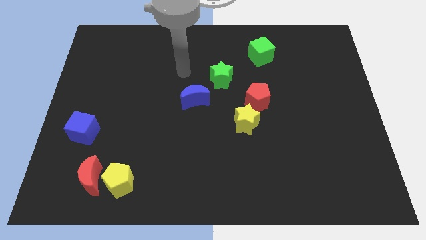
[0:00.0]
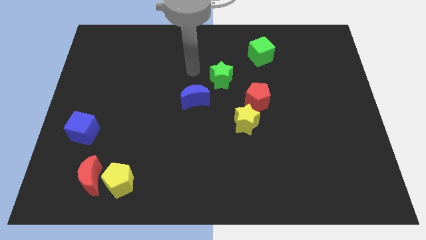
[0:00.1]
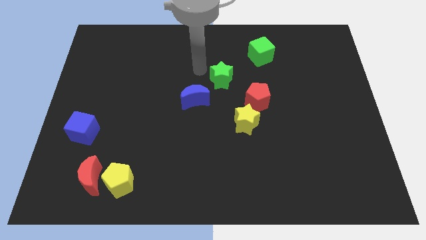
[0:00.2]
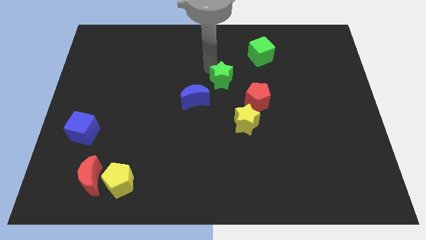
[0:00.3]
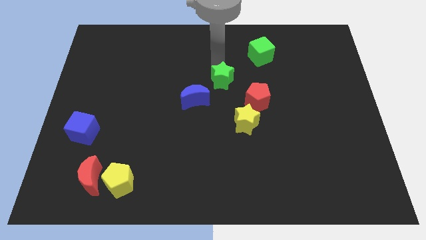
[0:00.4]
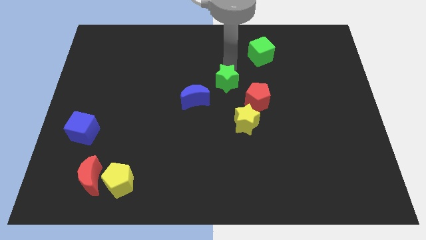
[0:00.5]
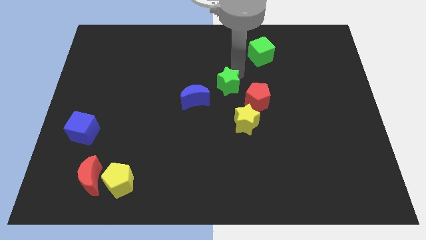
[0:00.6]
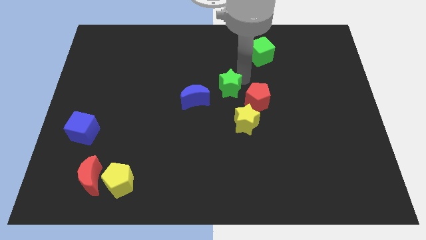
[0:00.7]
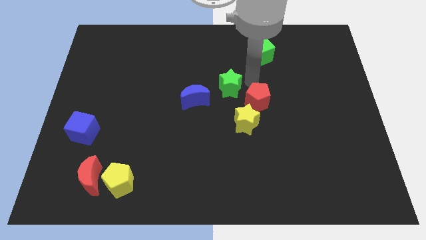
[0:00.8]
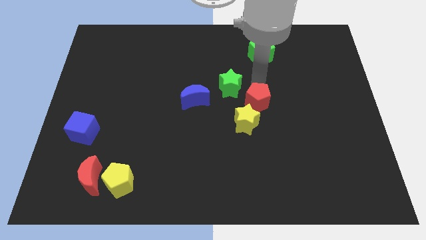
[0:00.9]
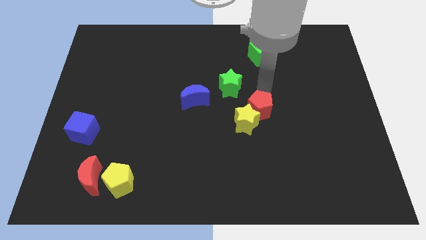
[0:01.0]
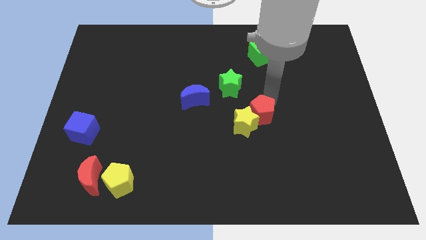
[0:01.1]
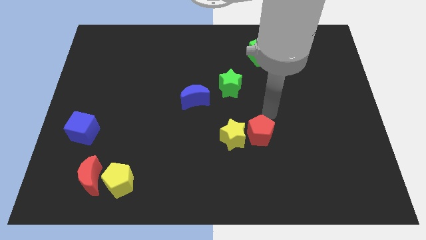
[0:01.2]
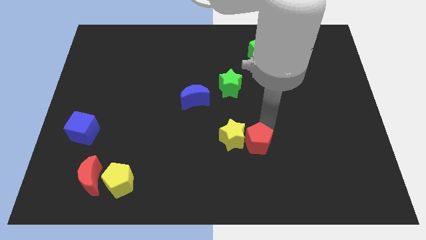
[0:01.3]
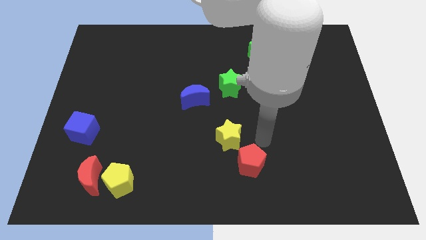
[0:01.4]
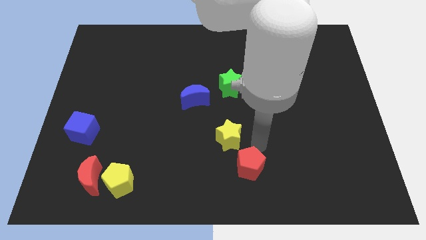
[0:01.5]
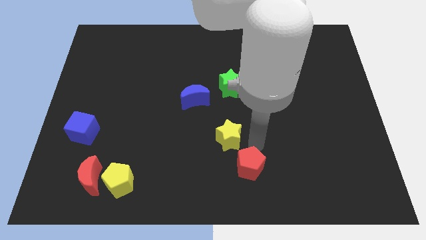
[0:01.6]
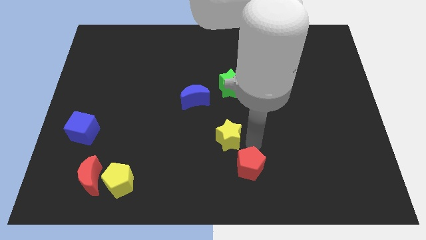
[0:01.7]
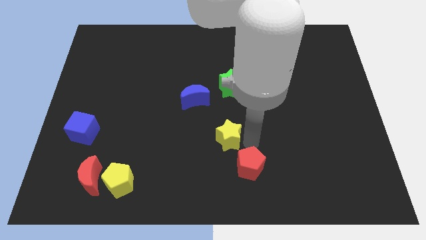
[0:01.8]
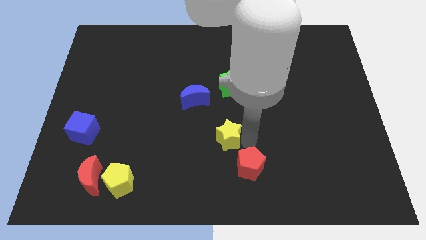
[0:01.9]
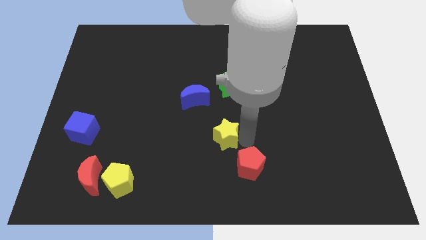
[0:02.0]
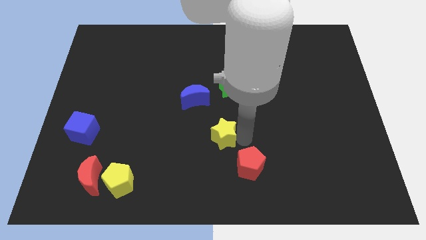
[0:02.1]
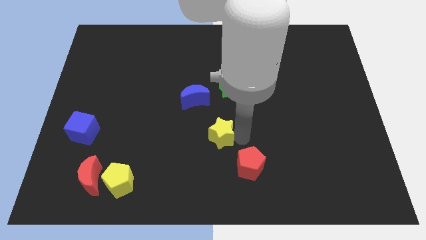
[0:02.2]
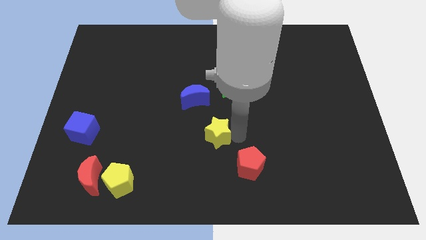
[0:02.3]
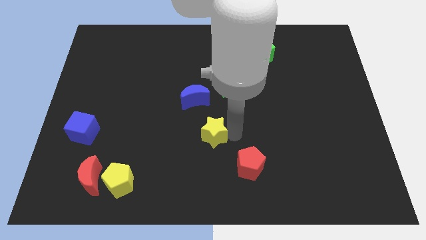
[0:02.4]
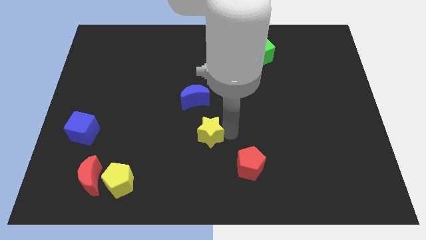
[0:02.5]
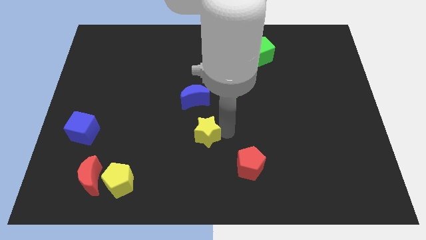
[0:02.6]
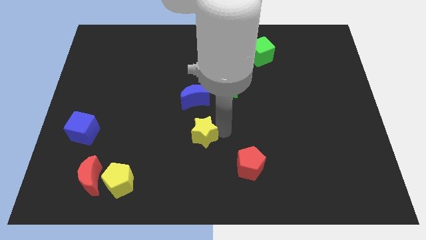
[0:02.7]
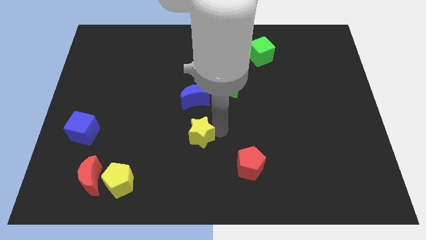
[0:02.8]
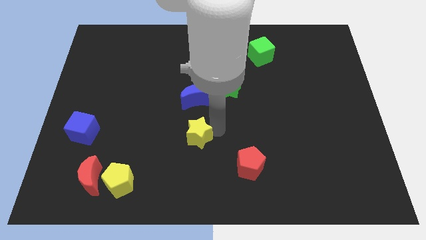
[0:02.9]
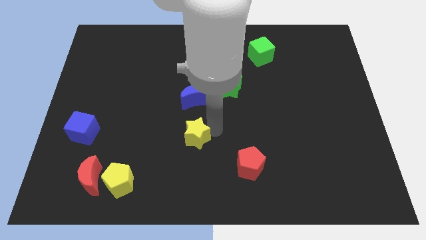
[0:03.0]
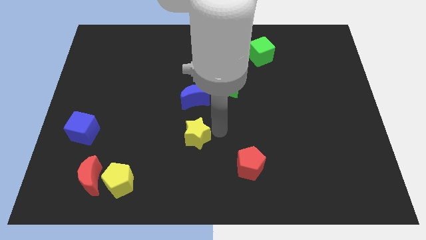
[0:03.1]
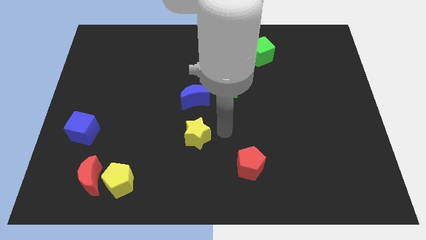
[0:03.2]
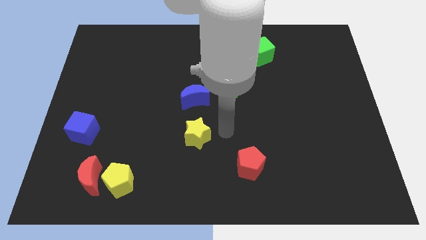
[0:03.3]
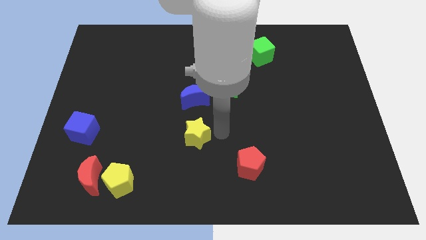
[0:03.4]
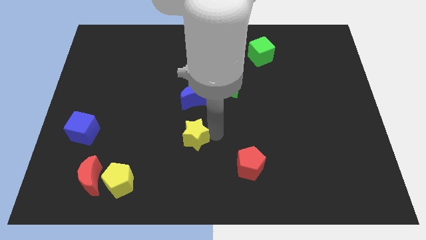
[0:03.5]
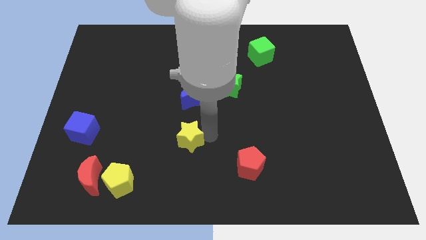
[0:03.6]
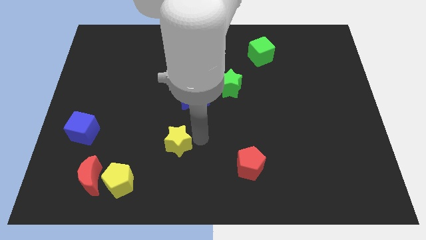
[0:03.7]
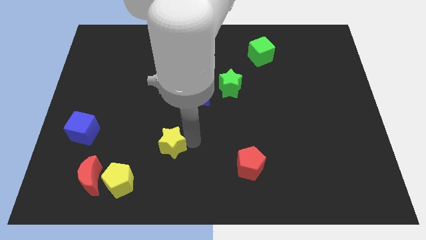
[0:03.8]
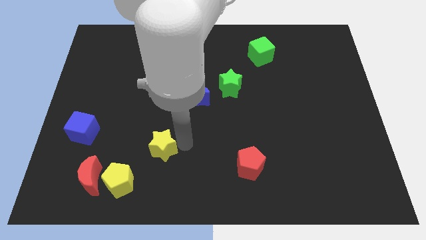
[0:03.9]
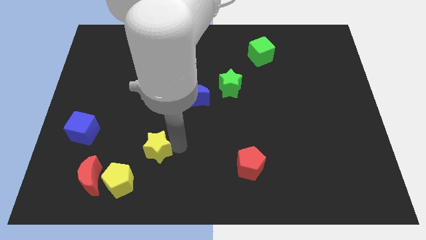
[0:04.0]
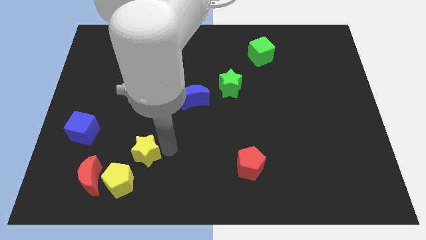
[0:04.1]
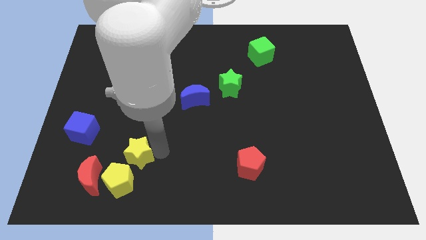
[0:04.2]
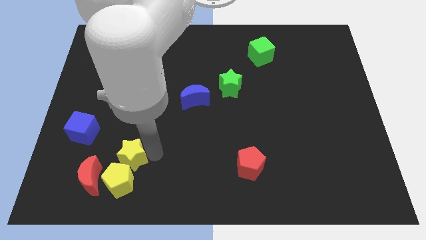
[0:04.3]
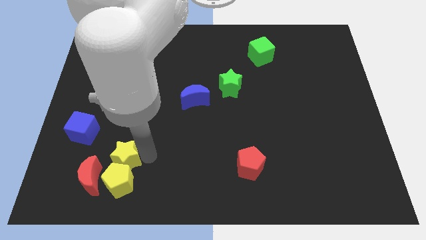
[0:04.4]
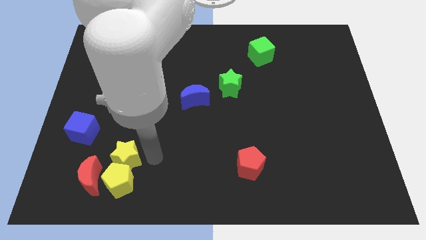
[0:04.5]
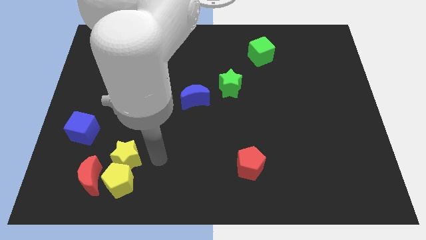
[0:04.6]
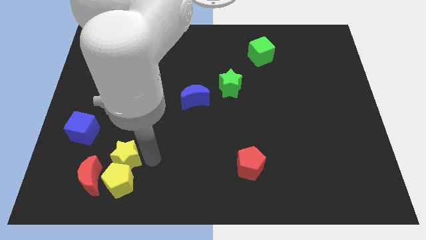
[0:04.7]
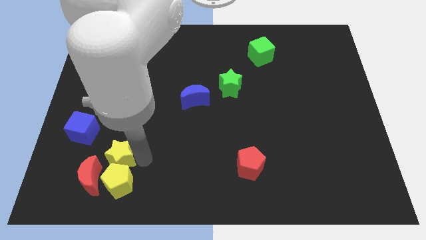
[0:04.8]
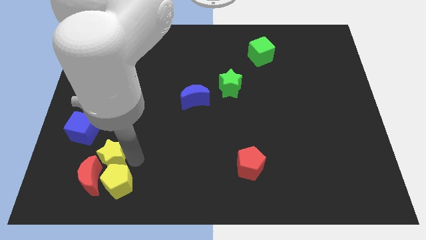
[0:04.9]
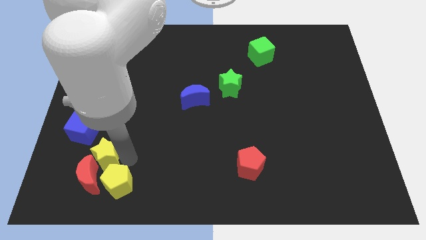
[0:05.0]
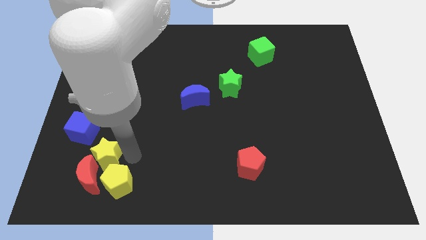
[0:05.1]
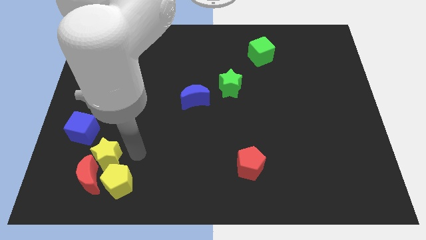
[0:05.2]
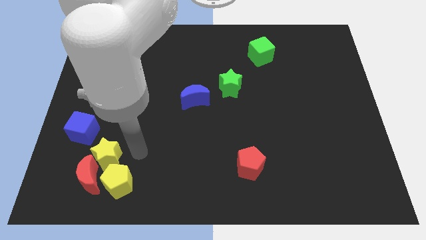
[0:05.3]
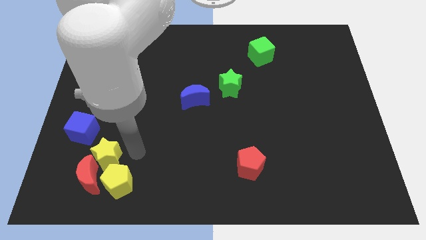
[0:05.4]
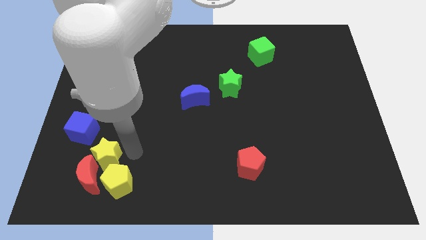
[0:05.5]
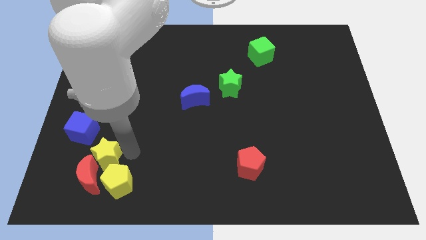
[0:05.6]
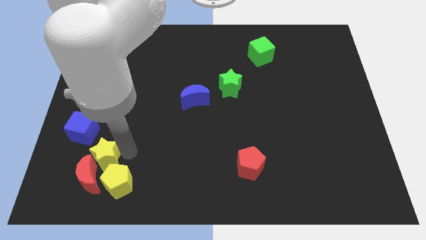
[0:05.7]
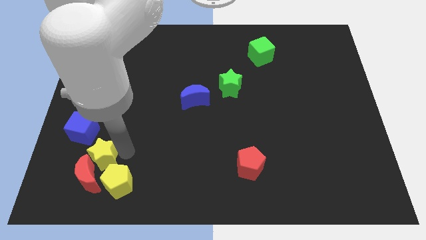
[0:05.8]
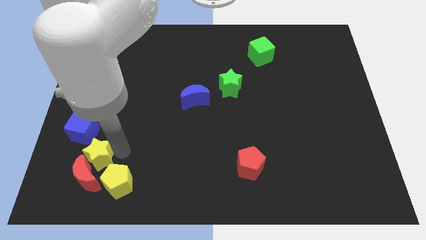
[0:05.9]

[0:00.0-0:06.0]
push the yellow star below the blue cube

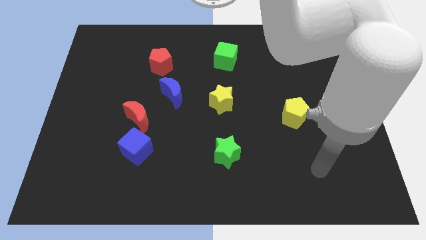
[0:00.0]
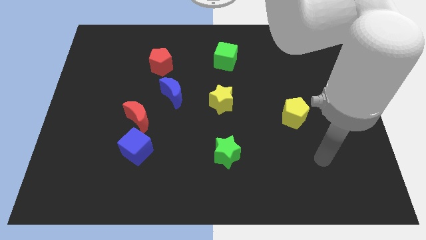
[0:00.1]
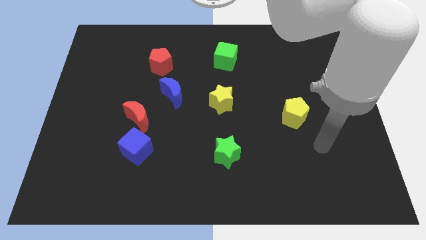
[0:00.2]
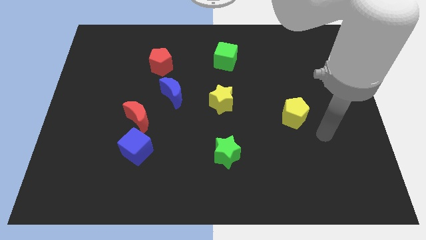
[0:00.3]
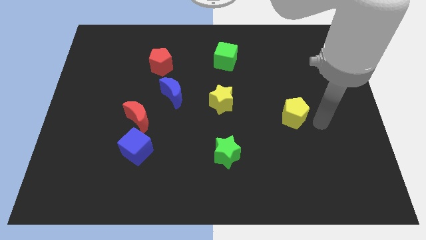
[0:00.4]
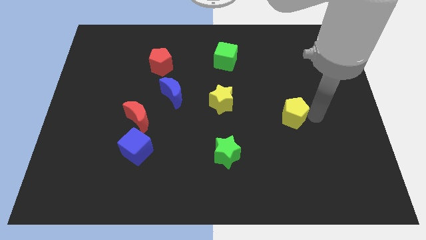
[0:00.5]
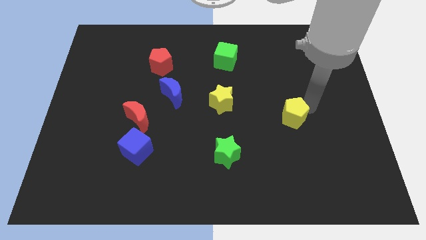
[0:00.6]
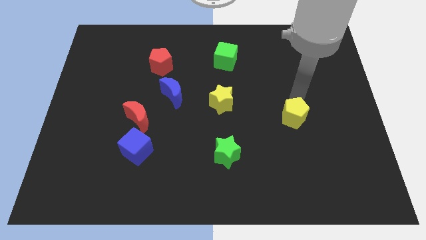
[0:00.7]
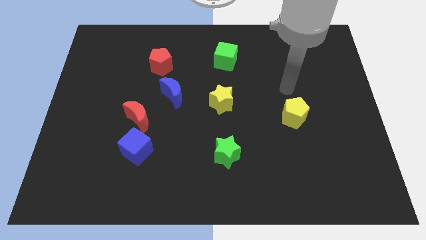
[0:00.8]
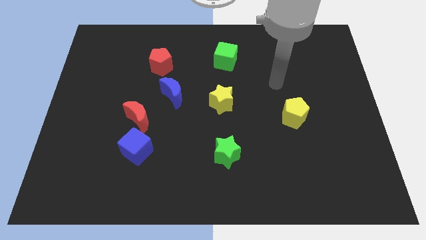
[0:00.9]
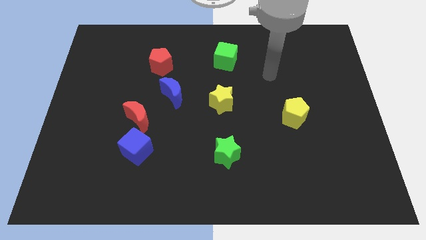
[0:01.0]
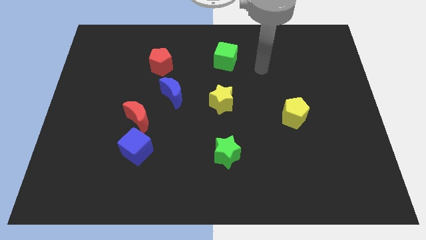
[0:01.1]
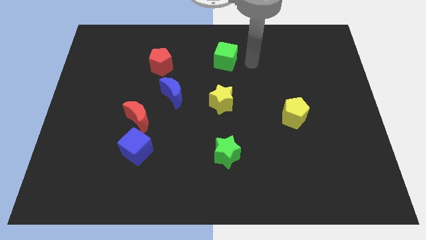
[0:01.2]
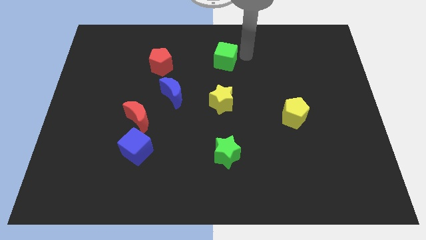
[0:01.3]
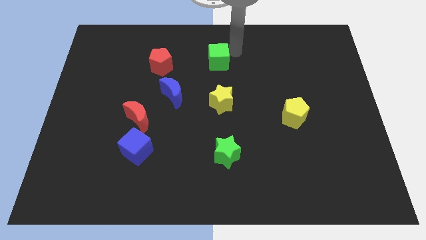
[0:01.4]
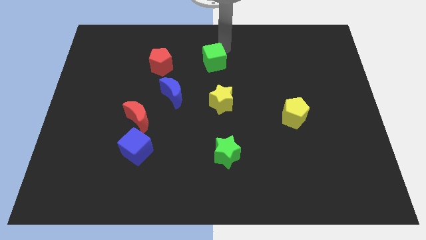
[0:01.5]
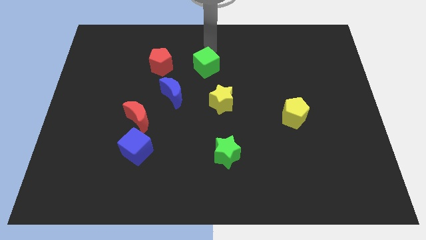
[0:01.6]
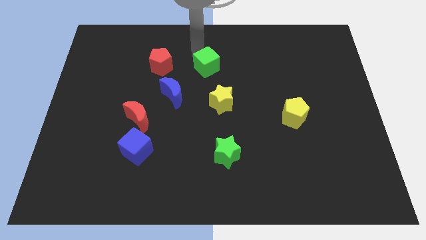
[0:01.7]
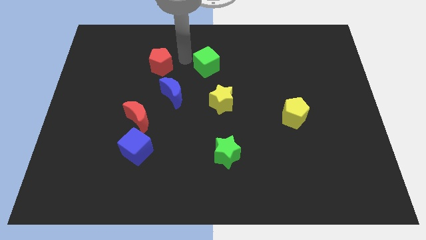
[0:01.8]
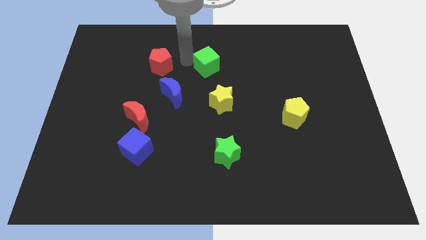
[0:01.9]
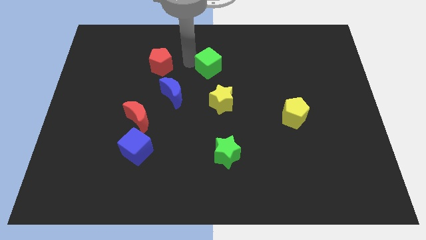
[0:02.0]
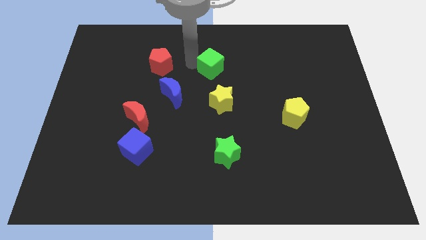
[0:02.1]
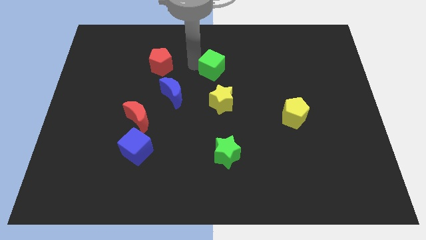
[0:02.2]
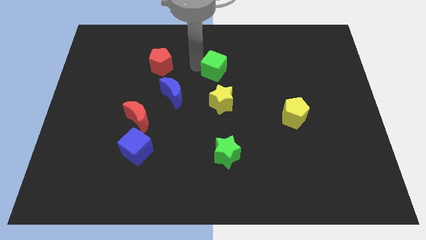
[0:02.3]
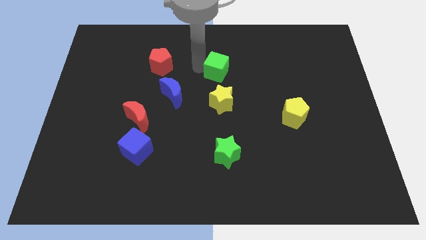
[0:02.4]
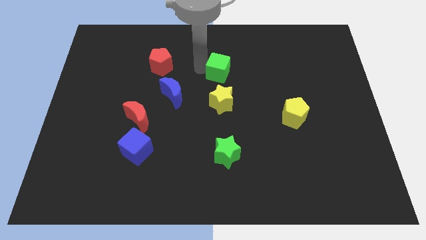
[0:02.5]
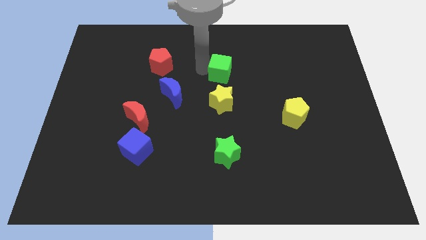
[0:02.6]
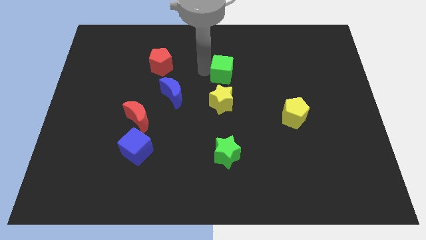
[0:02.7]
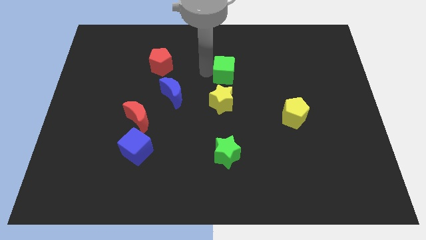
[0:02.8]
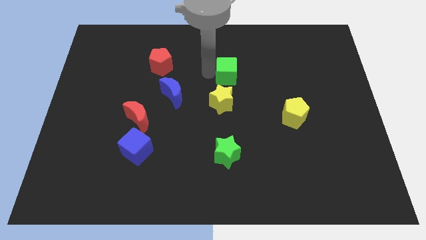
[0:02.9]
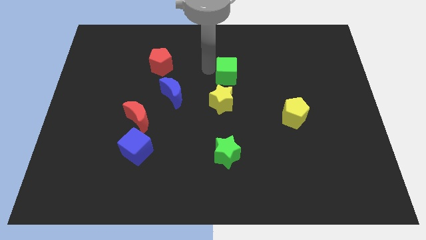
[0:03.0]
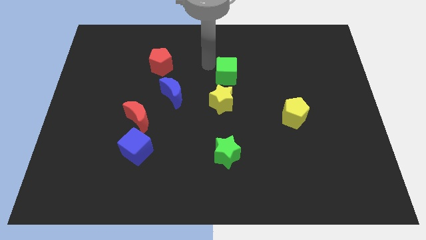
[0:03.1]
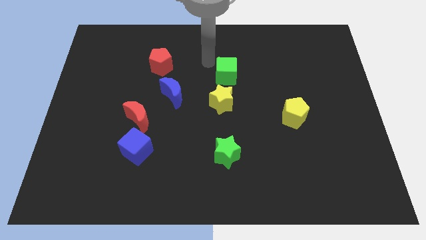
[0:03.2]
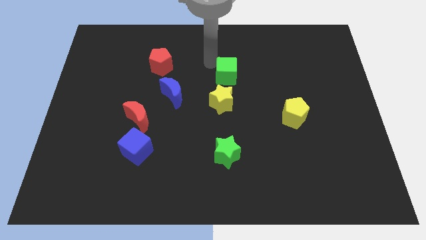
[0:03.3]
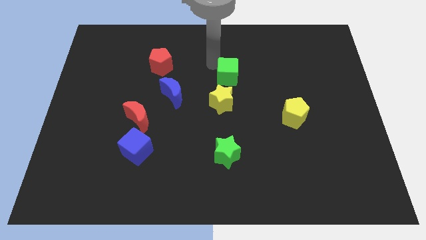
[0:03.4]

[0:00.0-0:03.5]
put the green cube to the top right side of the yellow star
